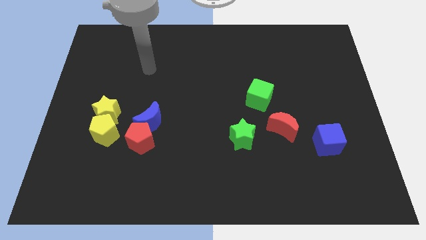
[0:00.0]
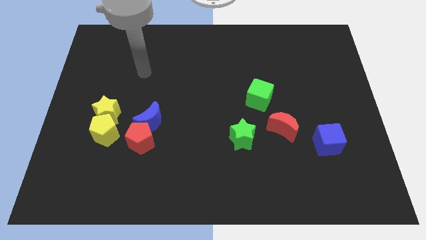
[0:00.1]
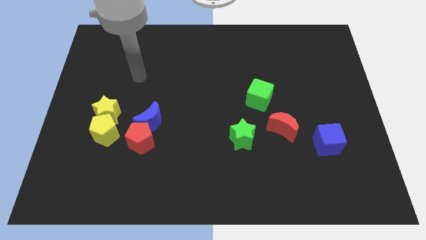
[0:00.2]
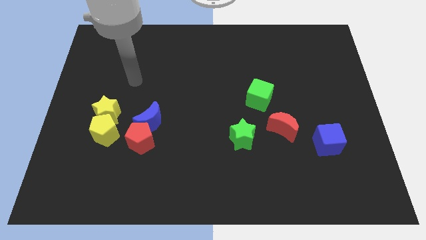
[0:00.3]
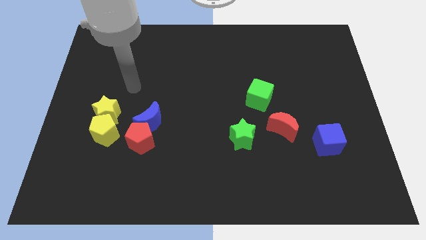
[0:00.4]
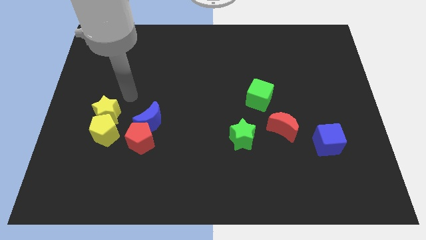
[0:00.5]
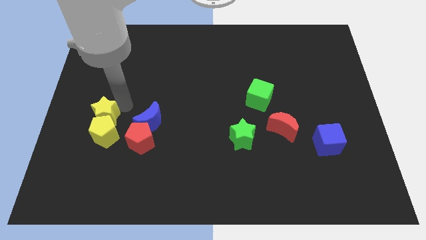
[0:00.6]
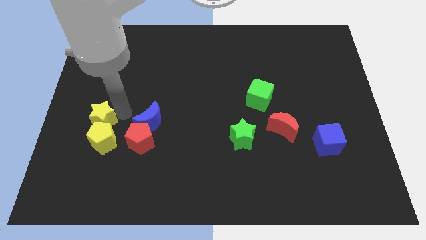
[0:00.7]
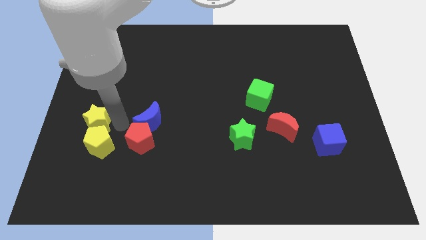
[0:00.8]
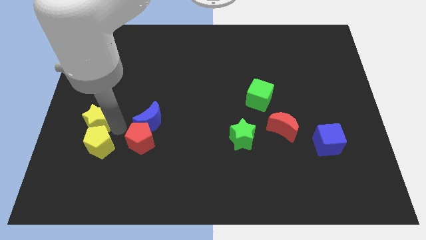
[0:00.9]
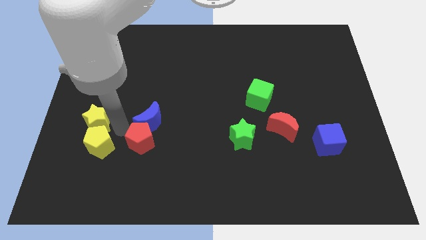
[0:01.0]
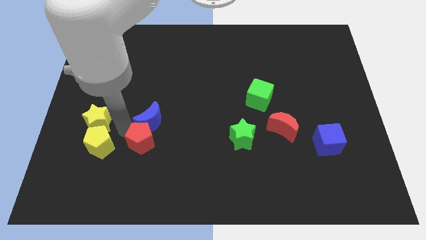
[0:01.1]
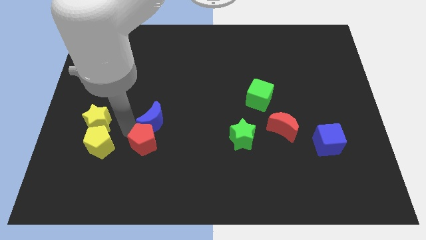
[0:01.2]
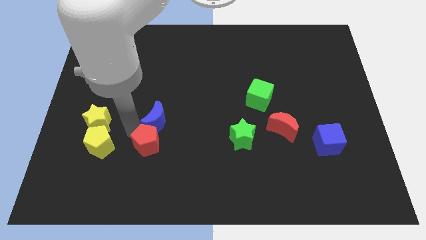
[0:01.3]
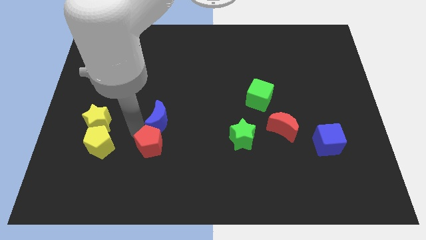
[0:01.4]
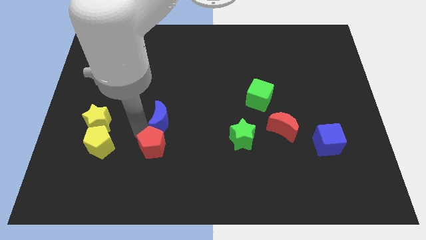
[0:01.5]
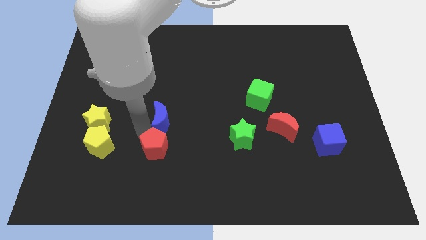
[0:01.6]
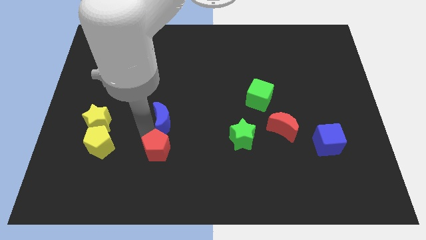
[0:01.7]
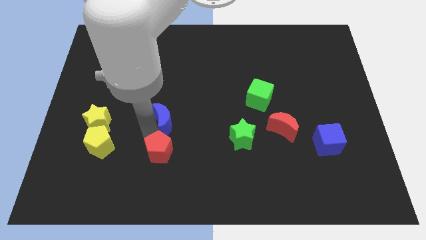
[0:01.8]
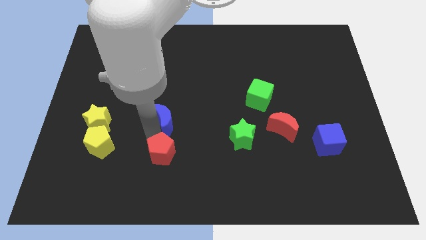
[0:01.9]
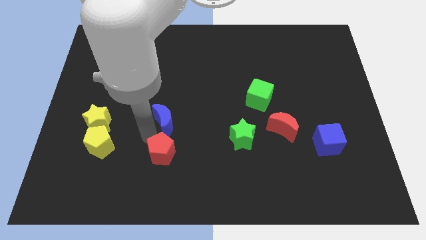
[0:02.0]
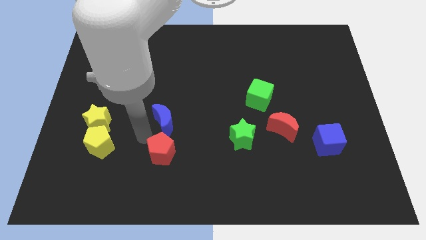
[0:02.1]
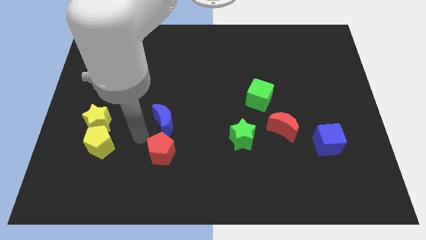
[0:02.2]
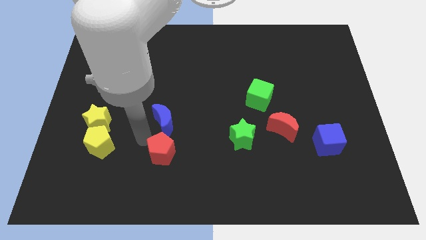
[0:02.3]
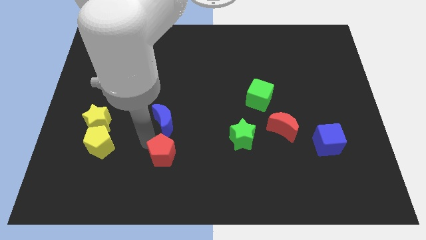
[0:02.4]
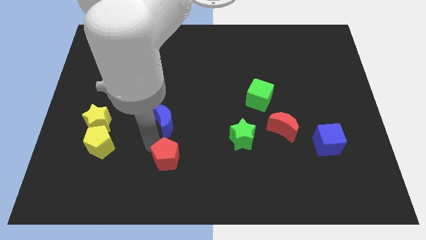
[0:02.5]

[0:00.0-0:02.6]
separate the red pentagon from the blue moon and yellow pentagon

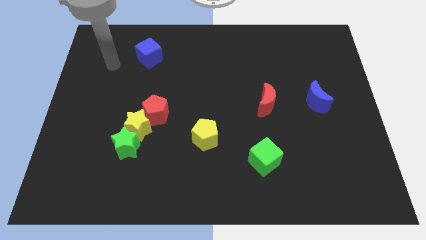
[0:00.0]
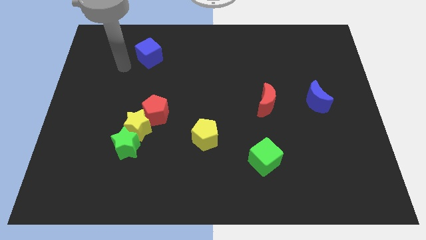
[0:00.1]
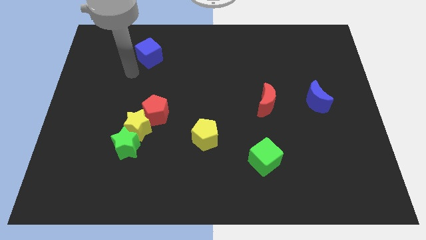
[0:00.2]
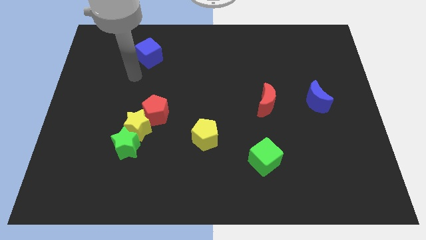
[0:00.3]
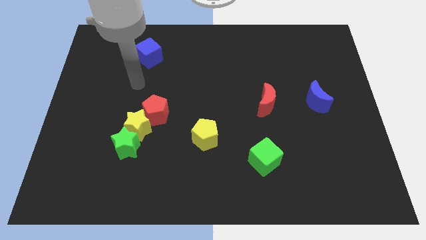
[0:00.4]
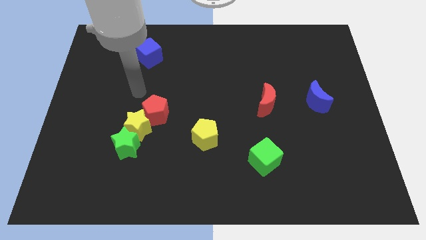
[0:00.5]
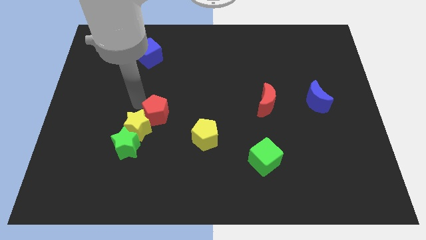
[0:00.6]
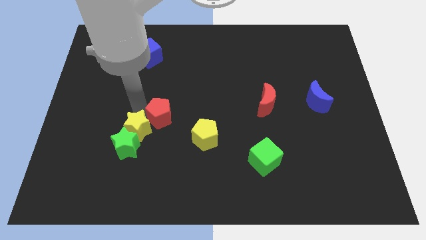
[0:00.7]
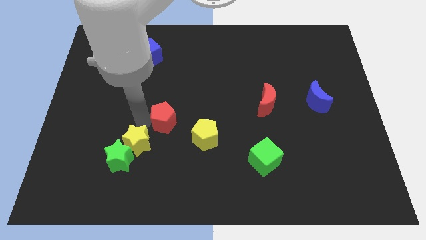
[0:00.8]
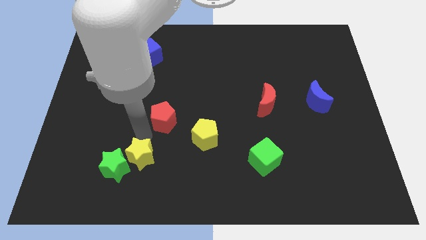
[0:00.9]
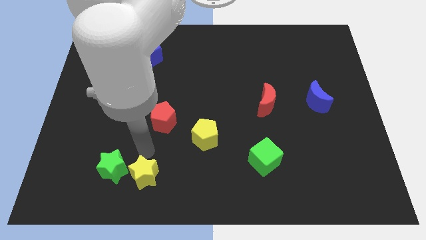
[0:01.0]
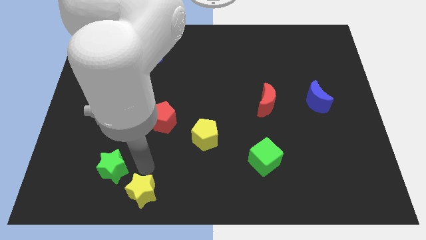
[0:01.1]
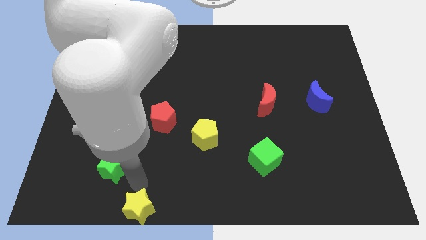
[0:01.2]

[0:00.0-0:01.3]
separate the green star from the yellow star

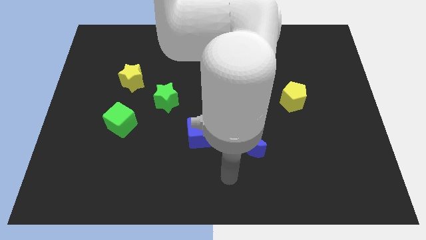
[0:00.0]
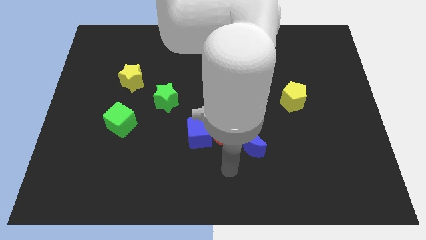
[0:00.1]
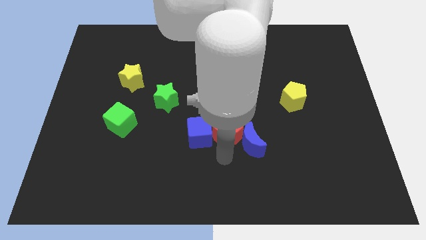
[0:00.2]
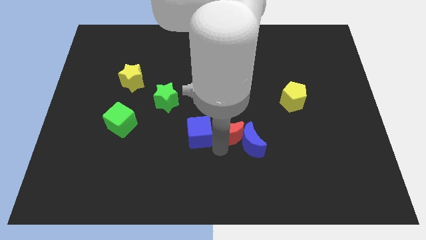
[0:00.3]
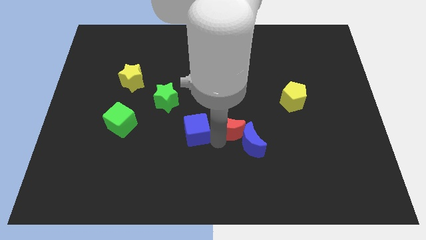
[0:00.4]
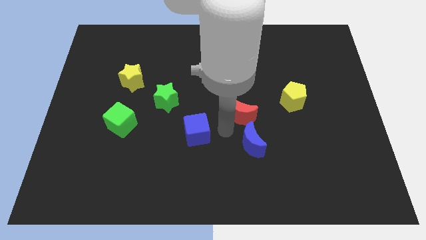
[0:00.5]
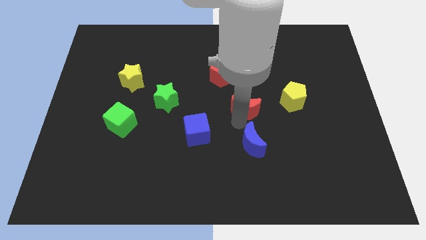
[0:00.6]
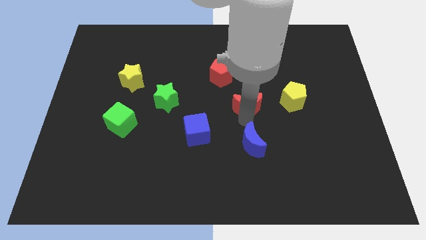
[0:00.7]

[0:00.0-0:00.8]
move the blue moon away from the red moon

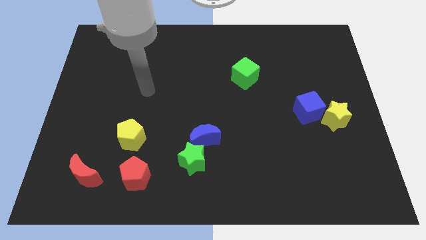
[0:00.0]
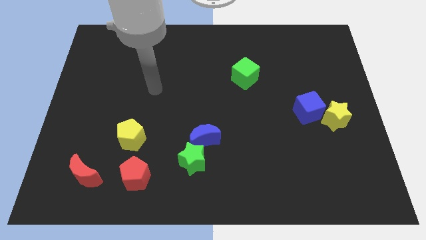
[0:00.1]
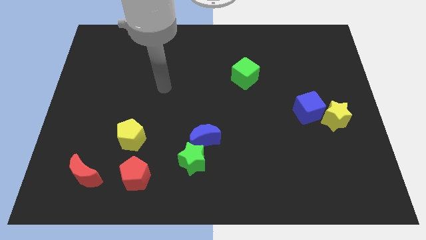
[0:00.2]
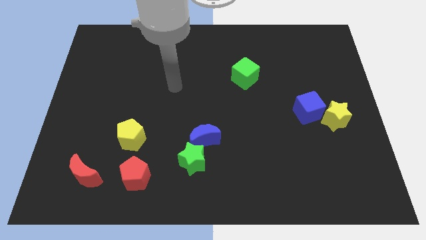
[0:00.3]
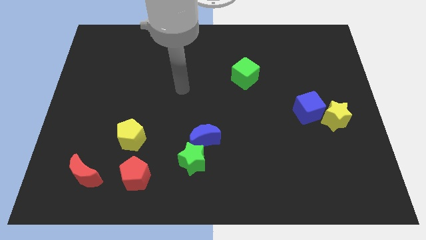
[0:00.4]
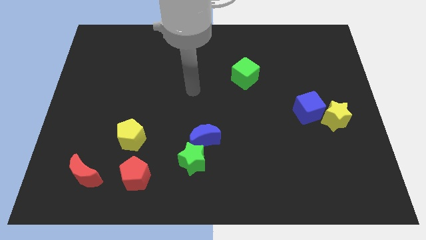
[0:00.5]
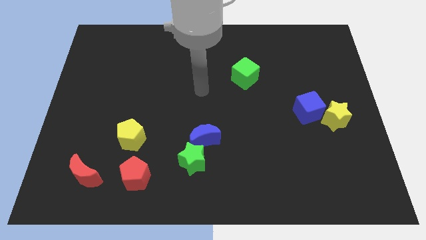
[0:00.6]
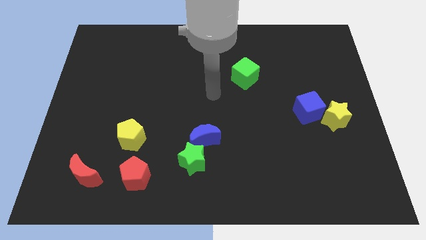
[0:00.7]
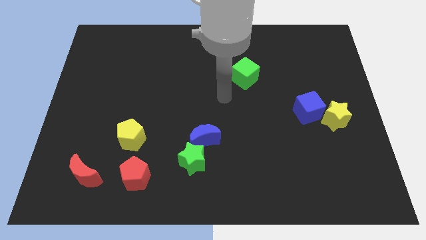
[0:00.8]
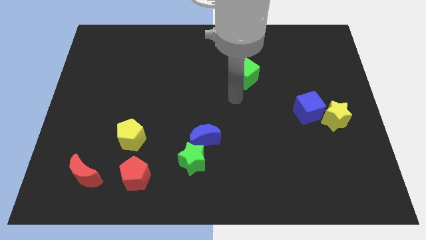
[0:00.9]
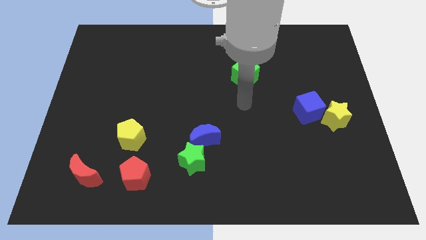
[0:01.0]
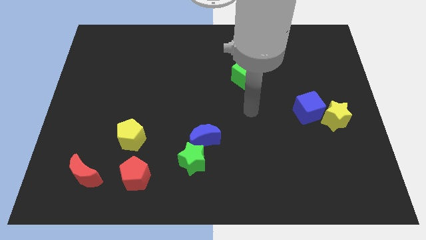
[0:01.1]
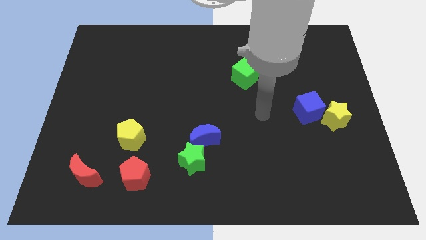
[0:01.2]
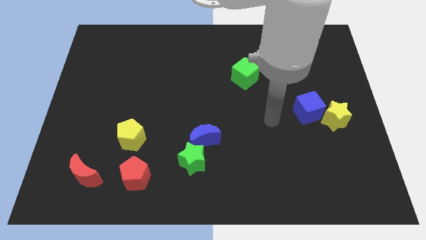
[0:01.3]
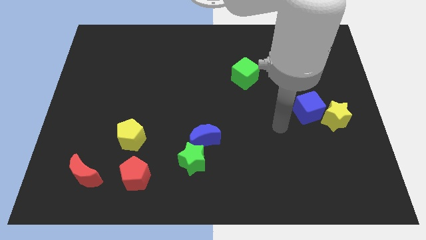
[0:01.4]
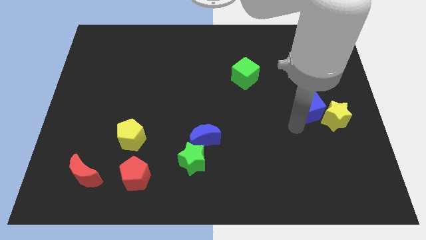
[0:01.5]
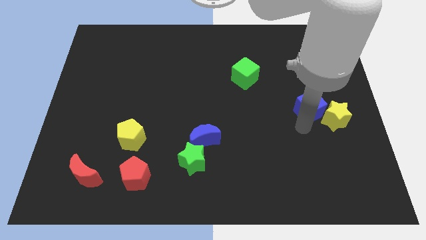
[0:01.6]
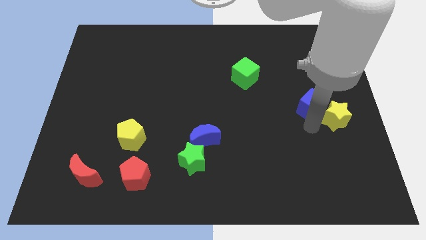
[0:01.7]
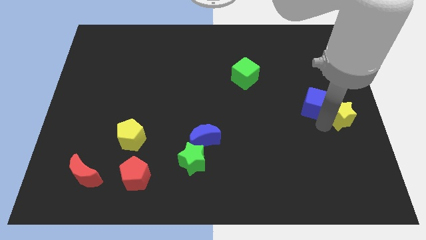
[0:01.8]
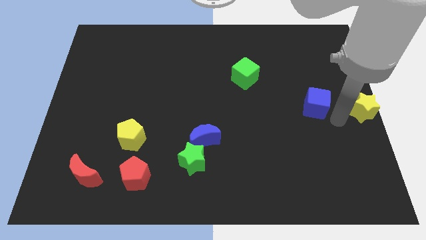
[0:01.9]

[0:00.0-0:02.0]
pull the blue cube apart from the yellow star

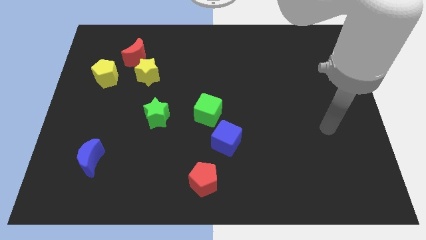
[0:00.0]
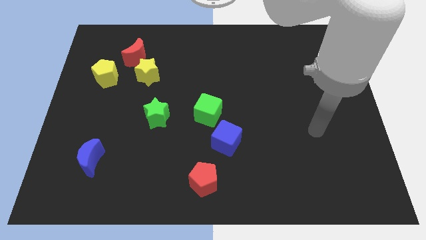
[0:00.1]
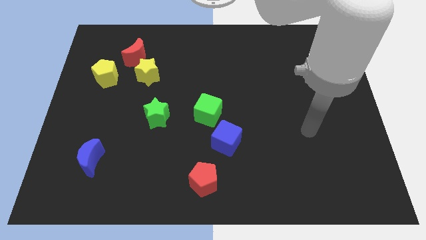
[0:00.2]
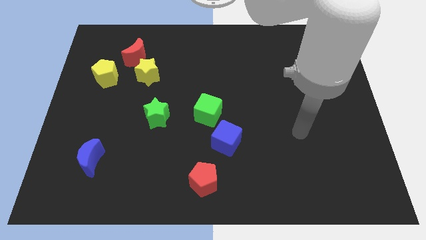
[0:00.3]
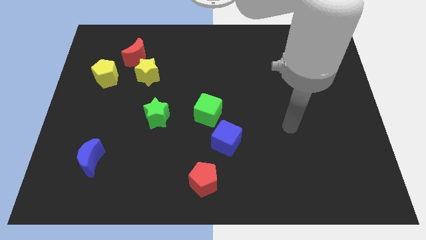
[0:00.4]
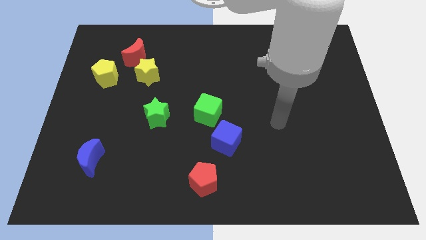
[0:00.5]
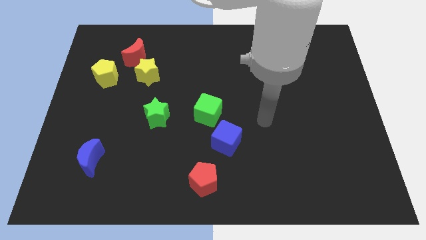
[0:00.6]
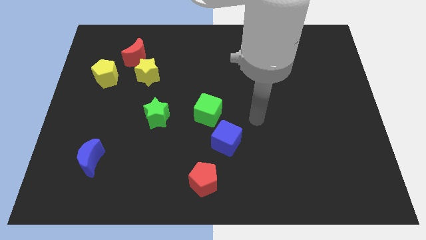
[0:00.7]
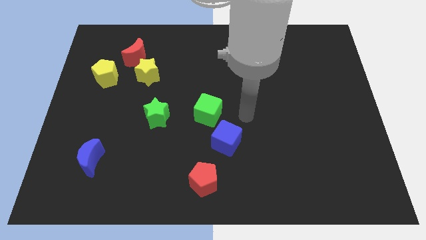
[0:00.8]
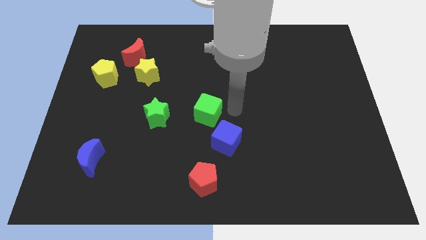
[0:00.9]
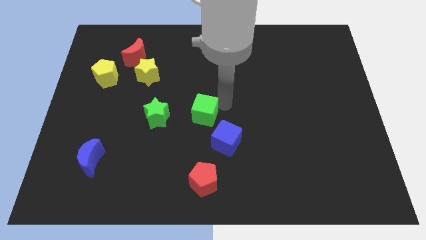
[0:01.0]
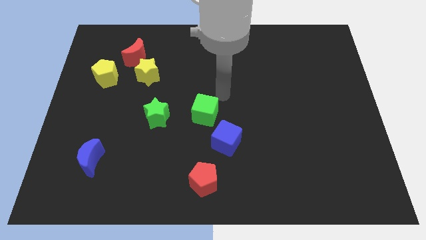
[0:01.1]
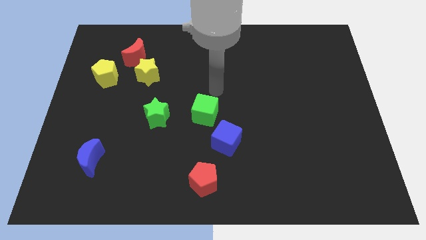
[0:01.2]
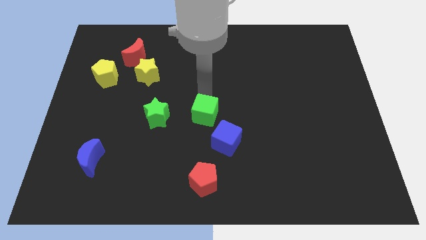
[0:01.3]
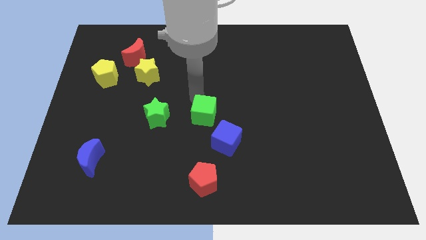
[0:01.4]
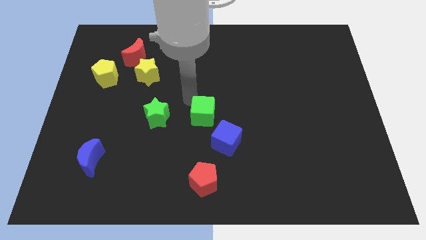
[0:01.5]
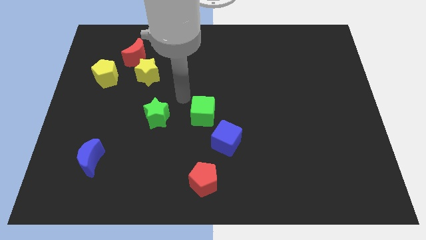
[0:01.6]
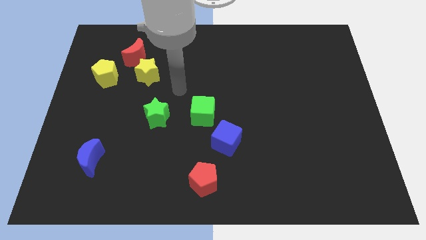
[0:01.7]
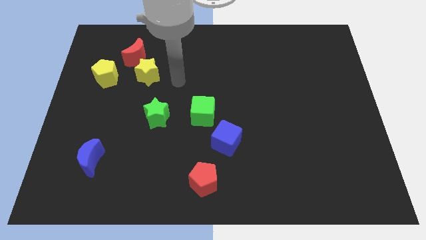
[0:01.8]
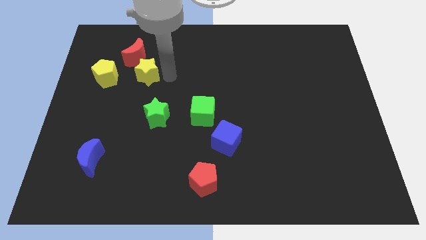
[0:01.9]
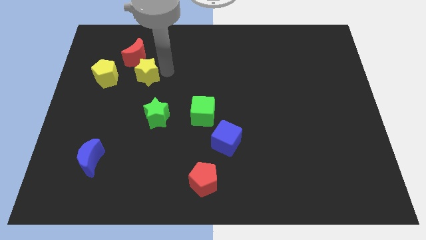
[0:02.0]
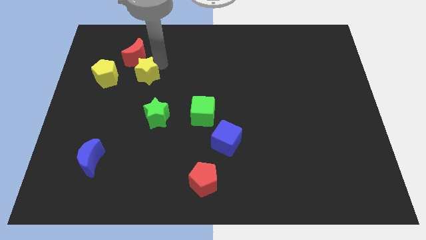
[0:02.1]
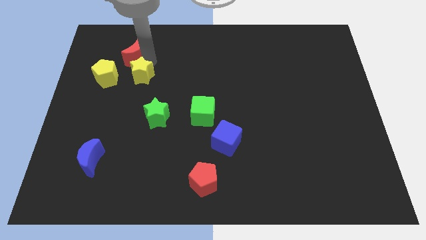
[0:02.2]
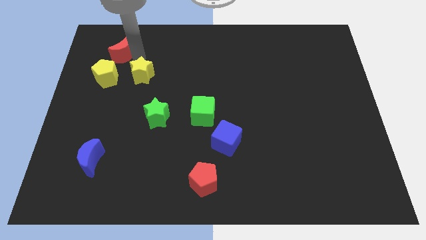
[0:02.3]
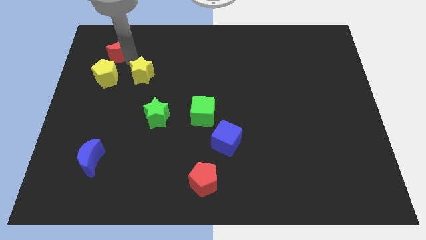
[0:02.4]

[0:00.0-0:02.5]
separate the yellow star from the red moon

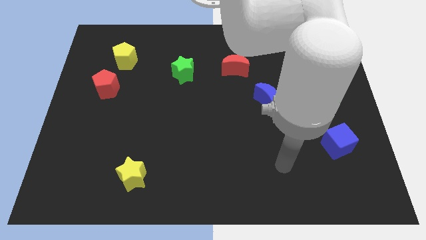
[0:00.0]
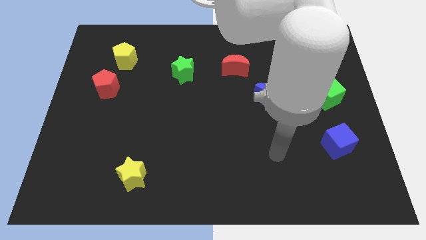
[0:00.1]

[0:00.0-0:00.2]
separate the red pentagon from the yellow pentagon
